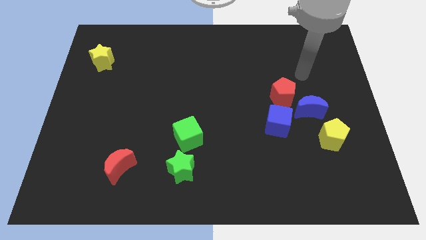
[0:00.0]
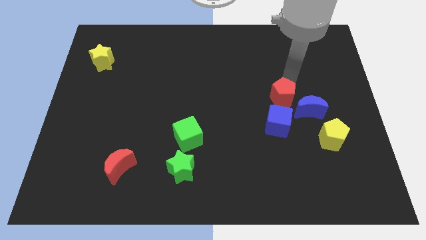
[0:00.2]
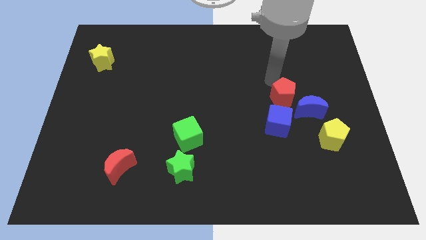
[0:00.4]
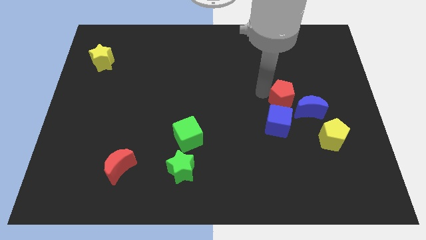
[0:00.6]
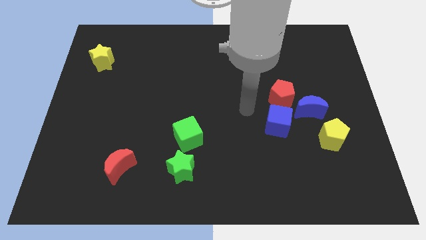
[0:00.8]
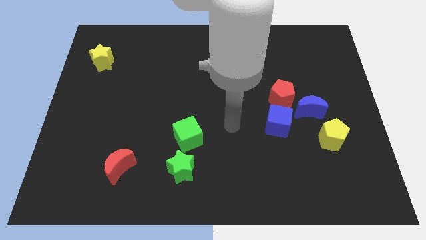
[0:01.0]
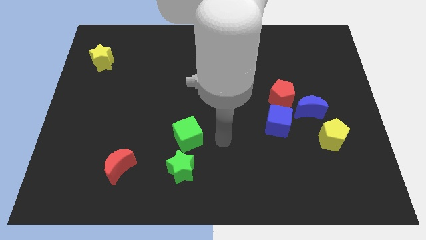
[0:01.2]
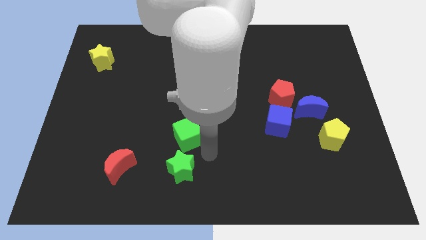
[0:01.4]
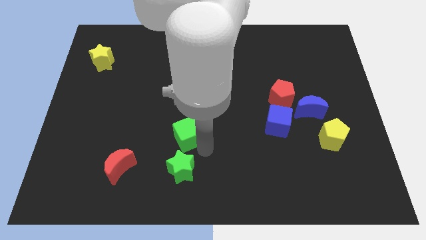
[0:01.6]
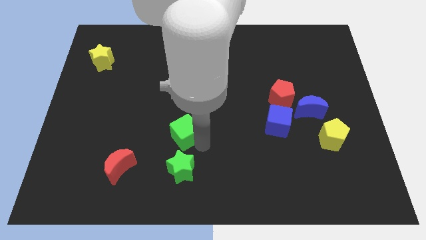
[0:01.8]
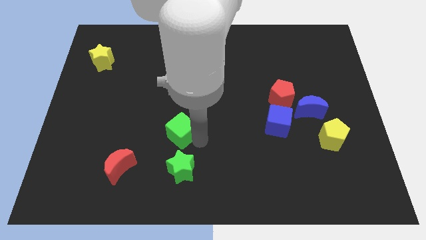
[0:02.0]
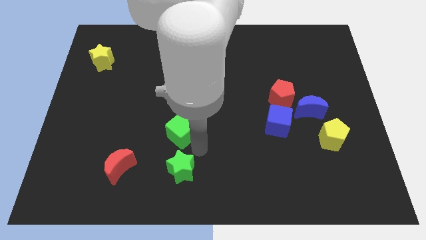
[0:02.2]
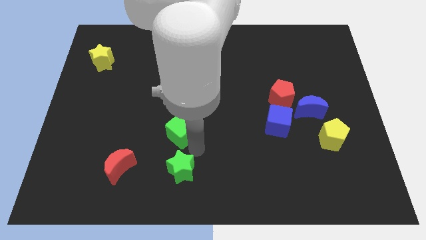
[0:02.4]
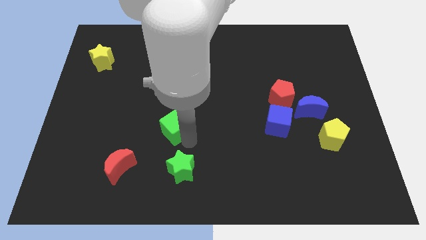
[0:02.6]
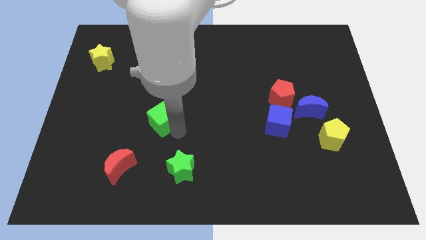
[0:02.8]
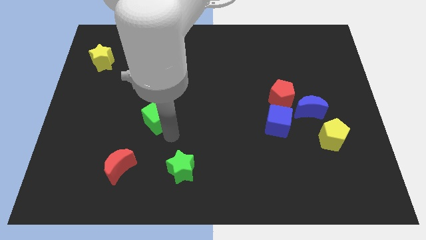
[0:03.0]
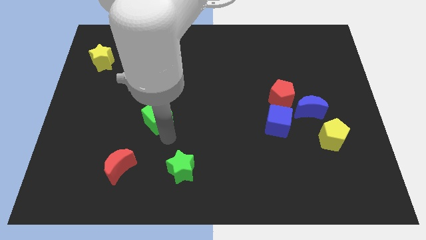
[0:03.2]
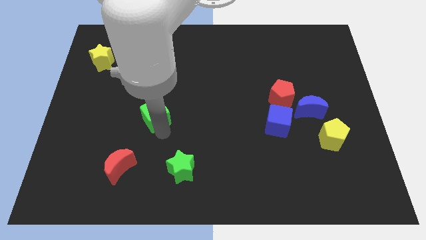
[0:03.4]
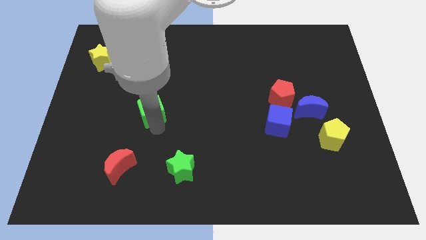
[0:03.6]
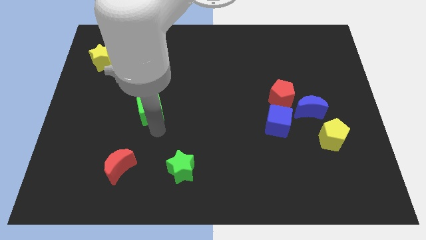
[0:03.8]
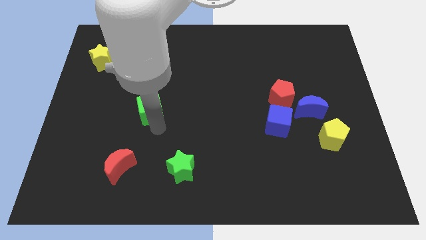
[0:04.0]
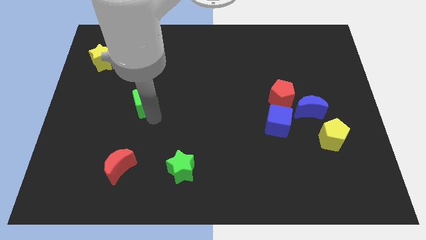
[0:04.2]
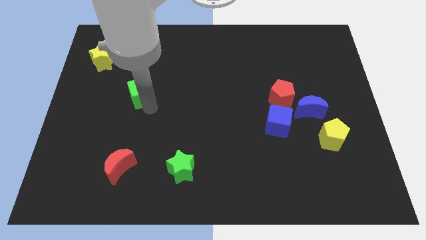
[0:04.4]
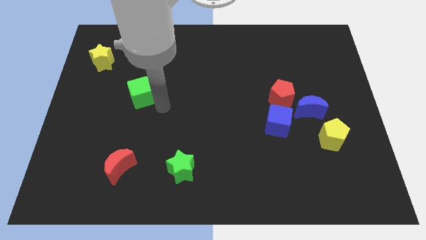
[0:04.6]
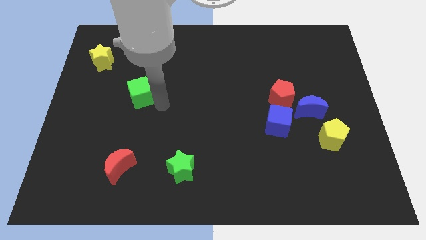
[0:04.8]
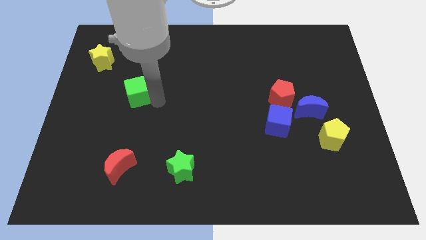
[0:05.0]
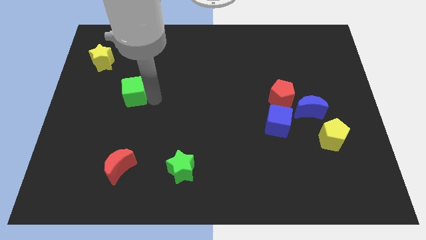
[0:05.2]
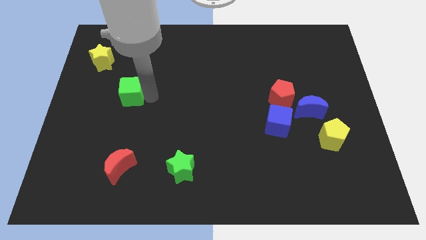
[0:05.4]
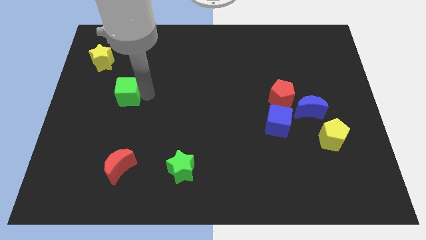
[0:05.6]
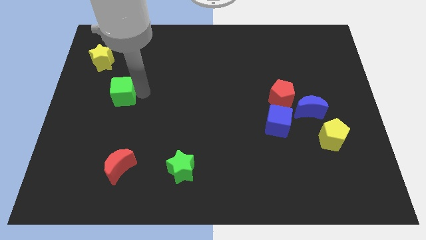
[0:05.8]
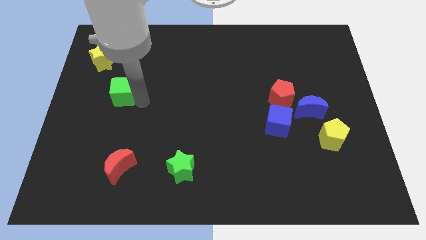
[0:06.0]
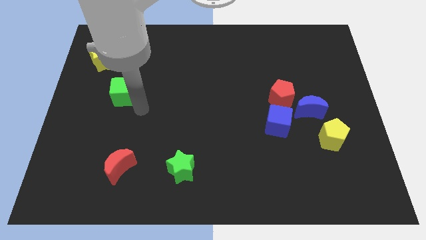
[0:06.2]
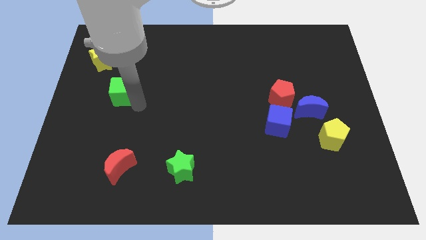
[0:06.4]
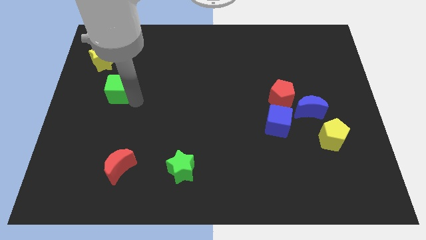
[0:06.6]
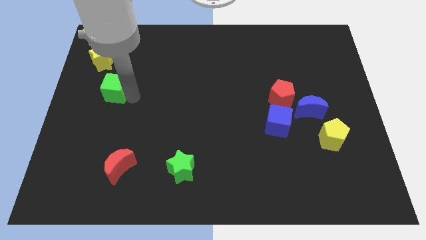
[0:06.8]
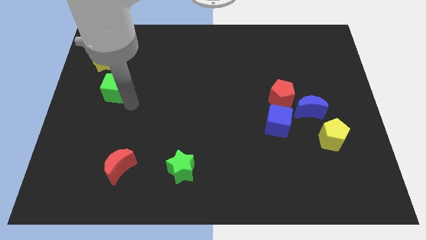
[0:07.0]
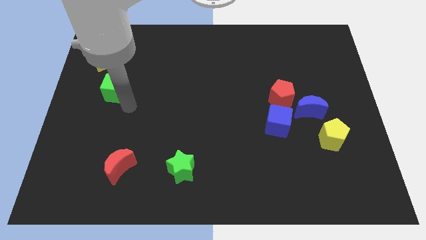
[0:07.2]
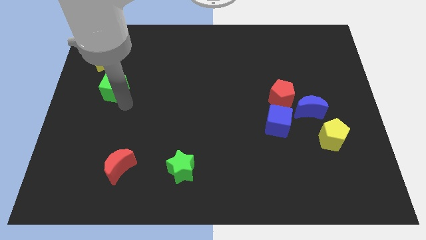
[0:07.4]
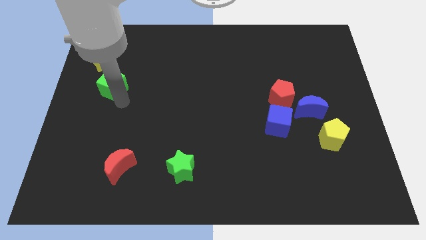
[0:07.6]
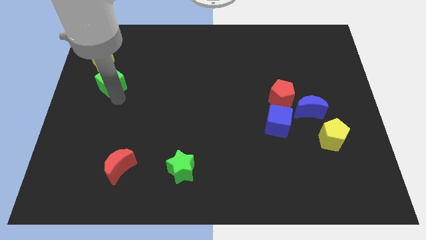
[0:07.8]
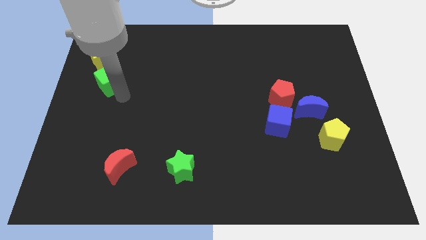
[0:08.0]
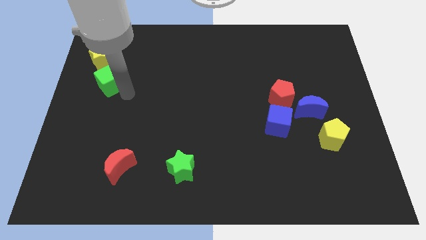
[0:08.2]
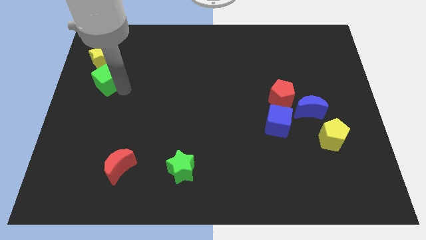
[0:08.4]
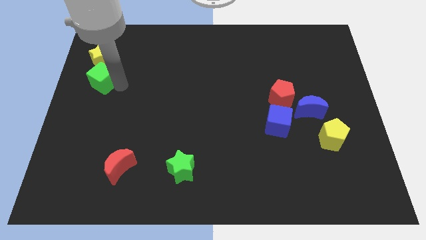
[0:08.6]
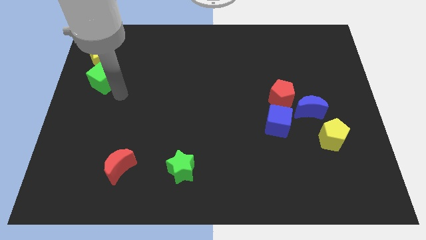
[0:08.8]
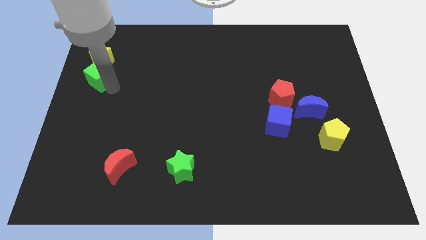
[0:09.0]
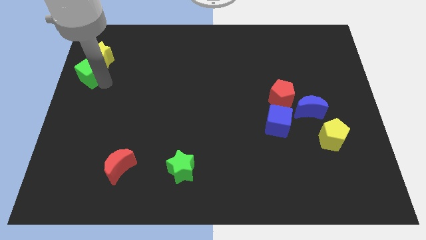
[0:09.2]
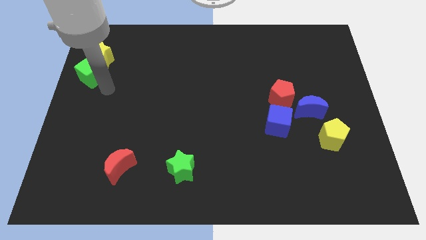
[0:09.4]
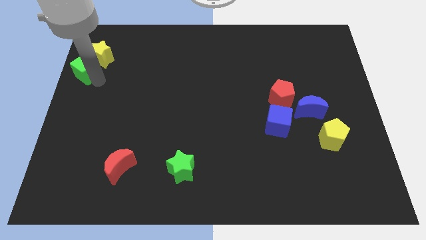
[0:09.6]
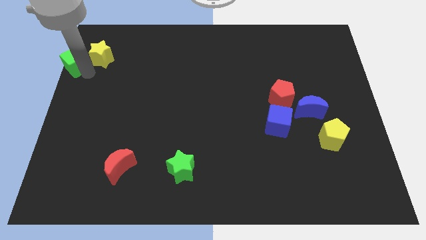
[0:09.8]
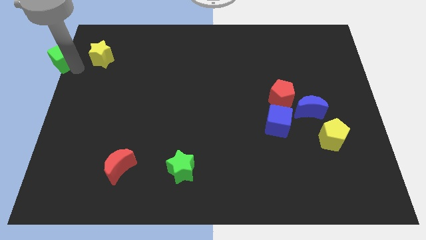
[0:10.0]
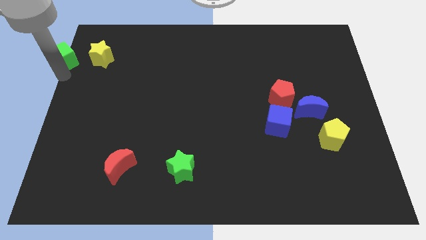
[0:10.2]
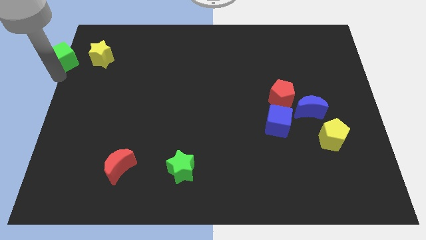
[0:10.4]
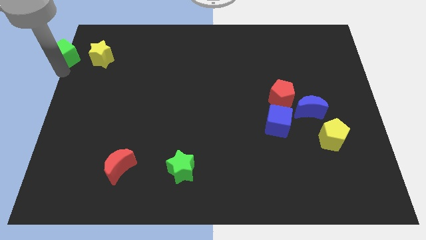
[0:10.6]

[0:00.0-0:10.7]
put the green cube to the top left

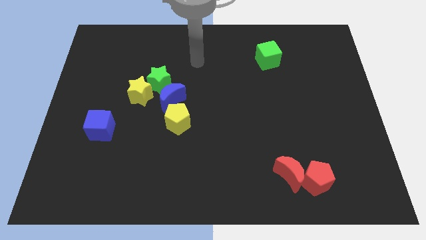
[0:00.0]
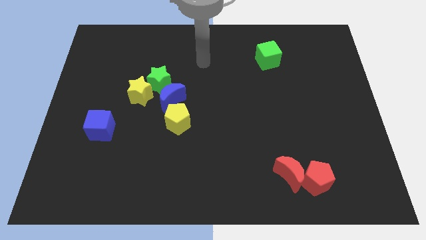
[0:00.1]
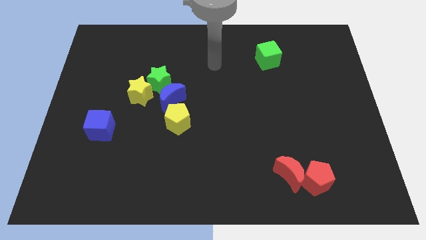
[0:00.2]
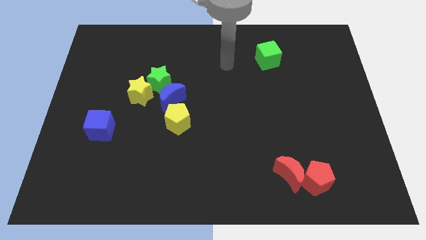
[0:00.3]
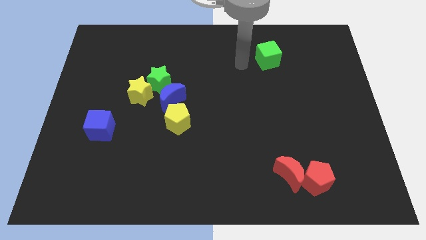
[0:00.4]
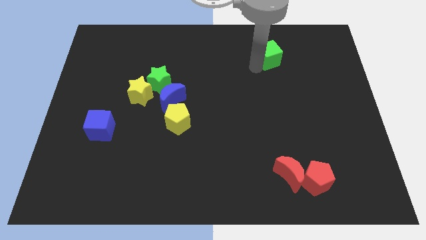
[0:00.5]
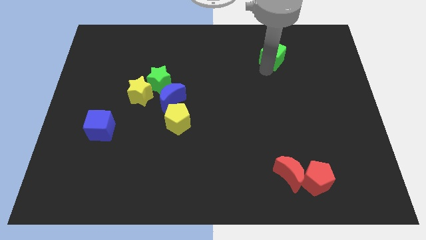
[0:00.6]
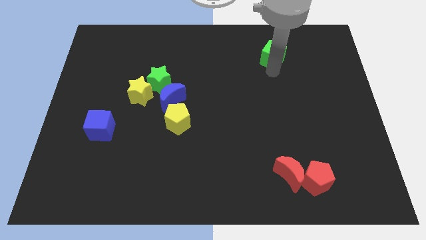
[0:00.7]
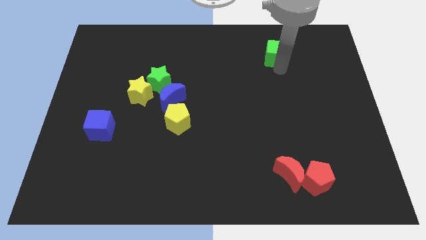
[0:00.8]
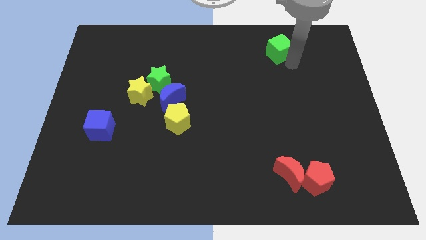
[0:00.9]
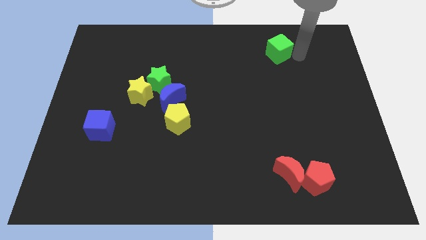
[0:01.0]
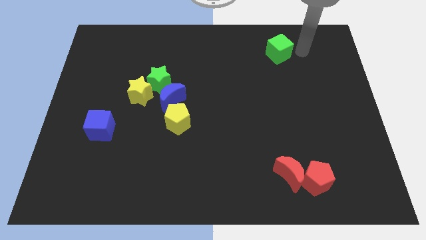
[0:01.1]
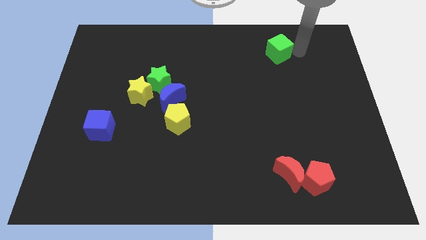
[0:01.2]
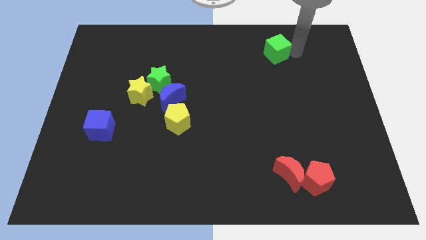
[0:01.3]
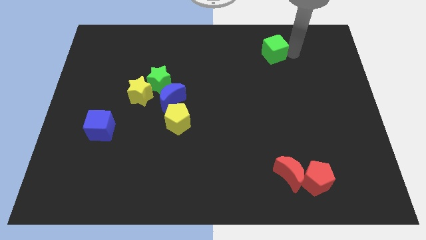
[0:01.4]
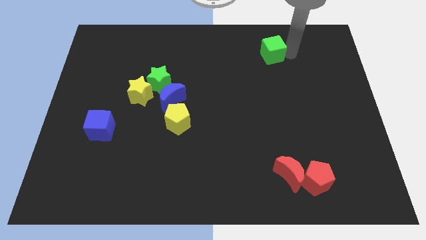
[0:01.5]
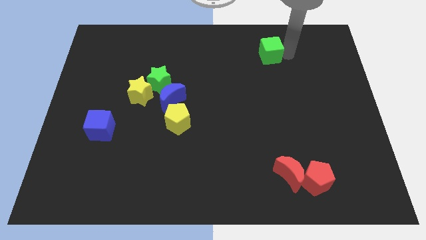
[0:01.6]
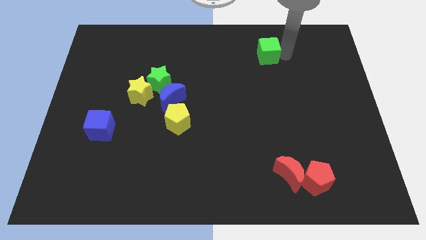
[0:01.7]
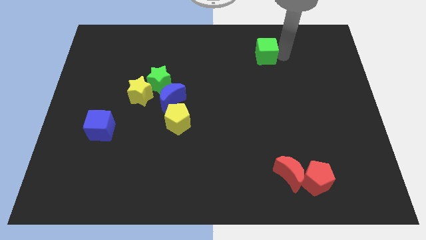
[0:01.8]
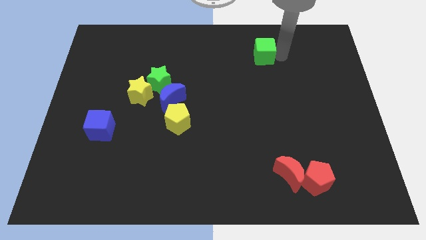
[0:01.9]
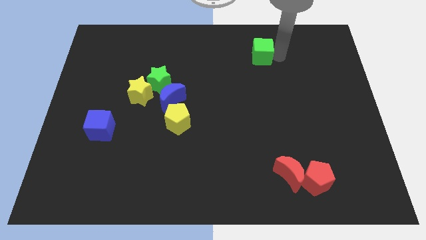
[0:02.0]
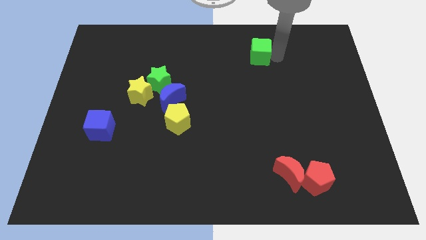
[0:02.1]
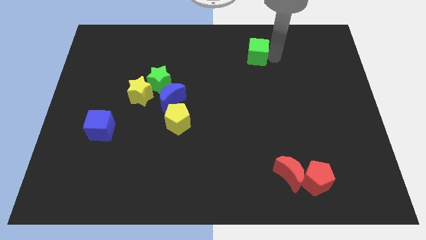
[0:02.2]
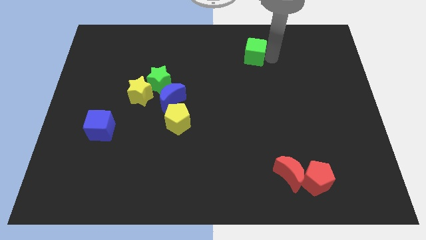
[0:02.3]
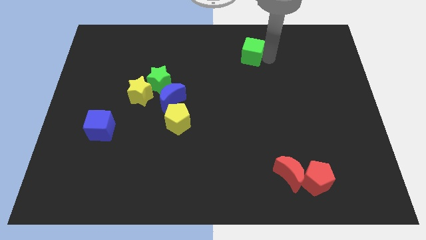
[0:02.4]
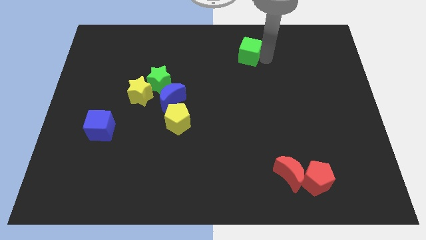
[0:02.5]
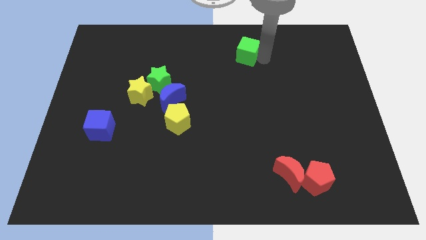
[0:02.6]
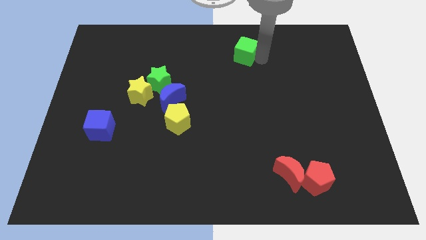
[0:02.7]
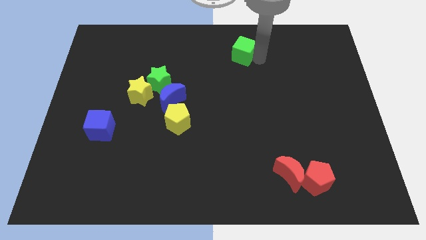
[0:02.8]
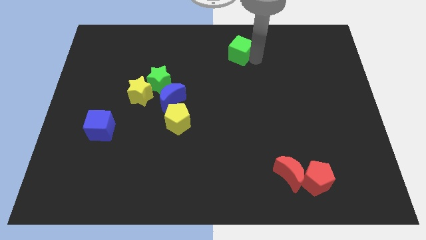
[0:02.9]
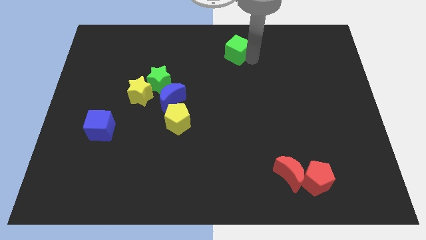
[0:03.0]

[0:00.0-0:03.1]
put the green cube to the top
